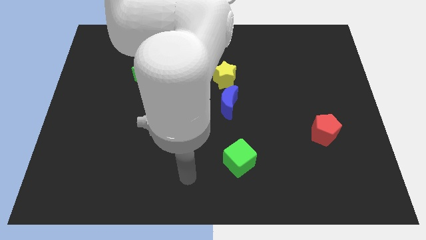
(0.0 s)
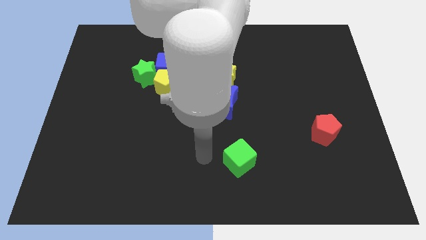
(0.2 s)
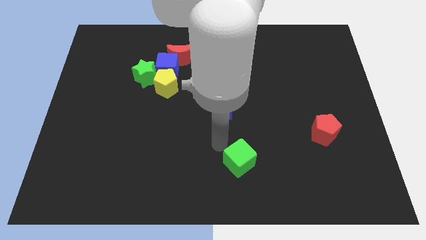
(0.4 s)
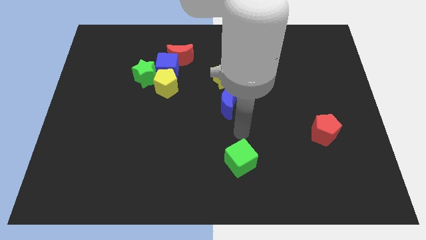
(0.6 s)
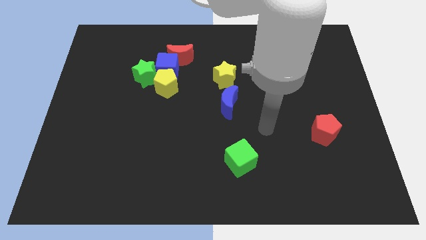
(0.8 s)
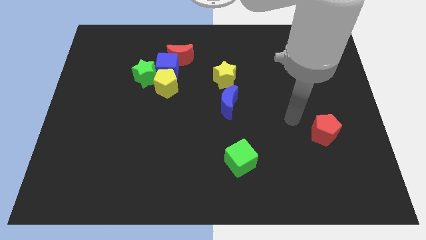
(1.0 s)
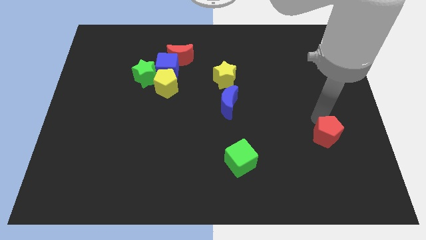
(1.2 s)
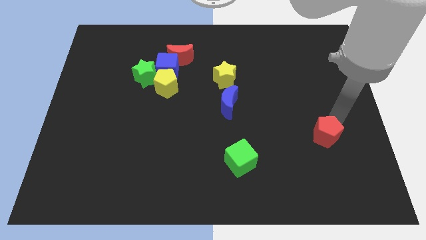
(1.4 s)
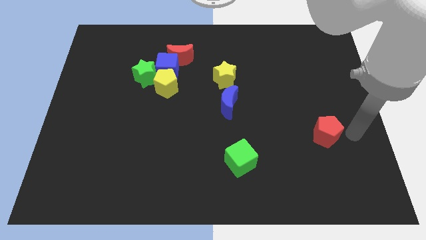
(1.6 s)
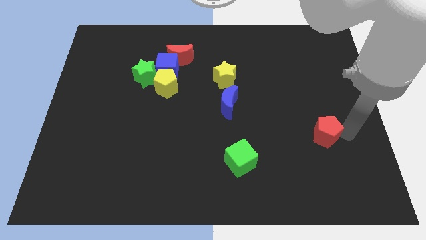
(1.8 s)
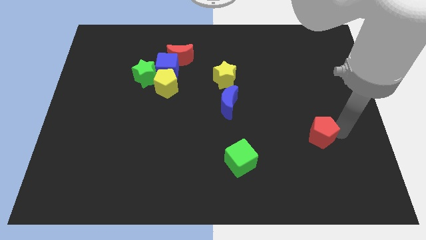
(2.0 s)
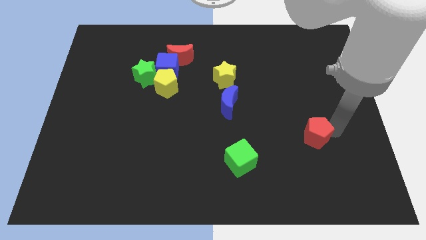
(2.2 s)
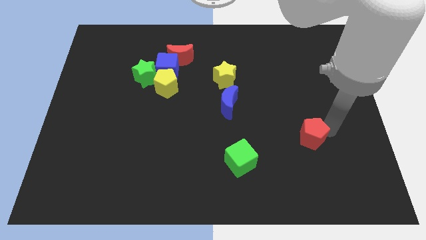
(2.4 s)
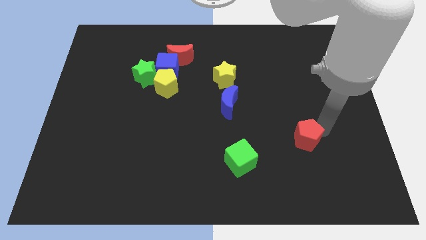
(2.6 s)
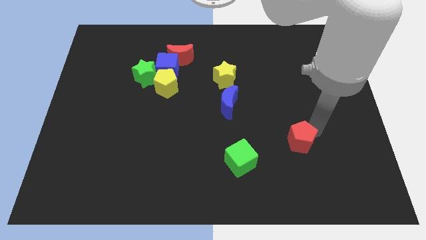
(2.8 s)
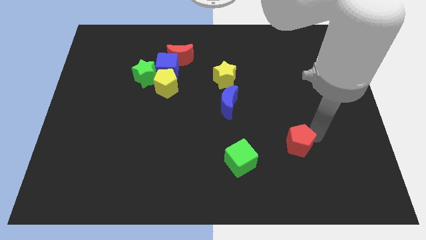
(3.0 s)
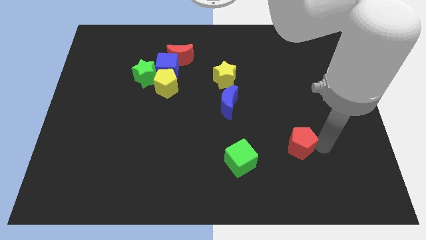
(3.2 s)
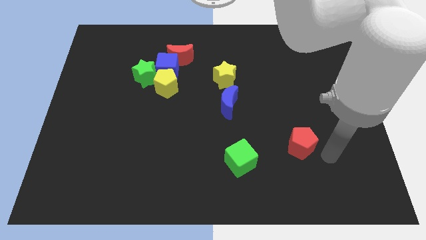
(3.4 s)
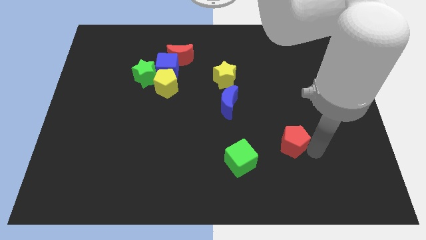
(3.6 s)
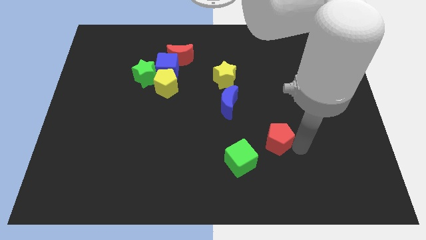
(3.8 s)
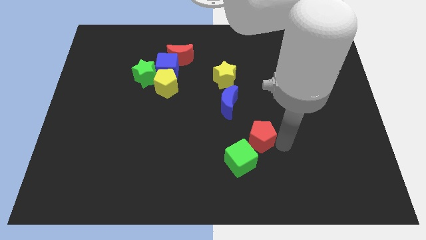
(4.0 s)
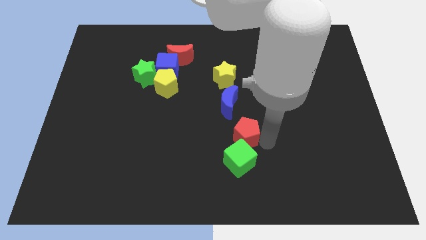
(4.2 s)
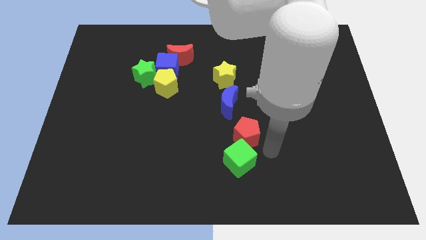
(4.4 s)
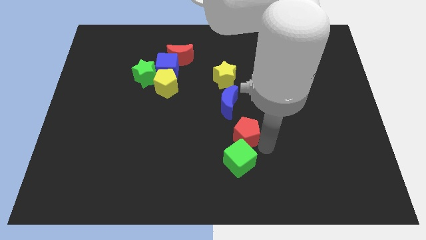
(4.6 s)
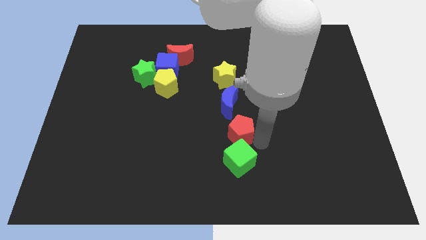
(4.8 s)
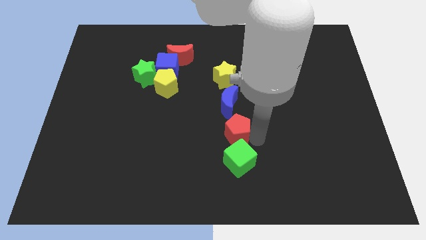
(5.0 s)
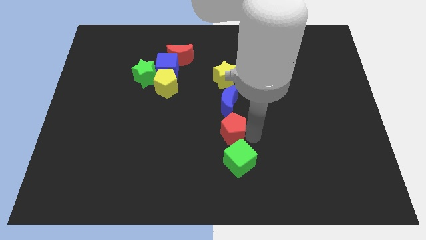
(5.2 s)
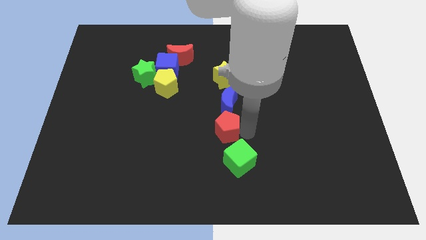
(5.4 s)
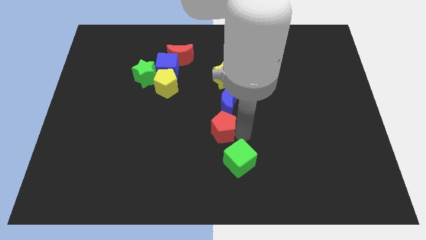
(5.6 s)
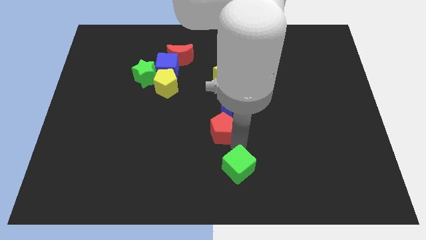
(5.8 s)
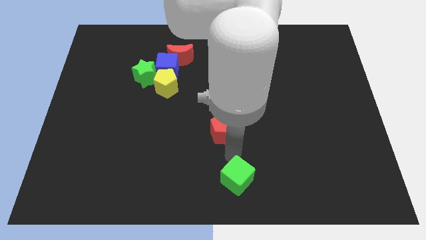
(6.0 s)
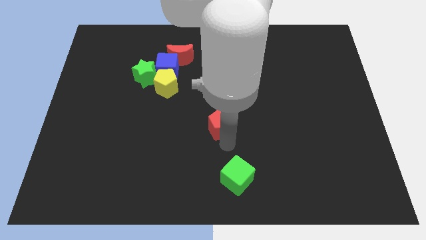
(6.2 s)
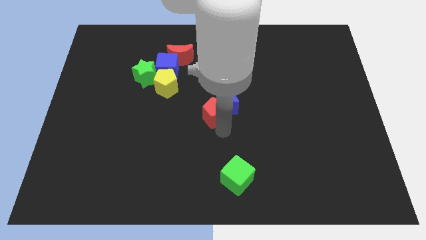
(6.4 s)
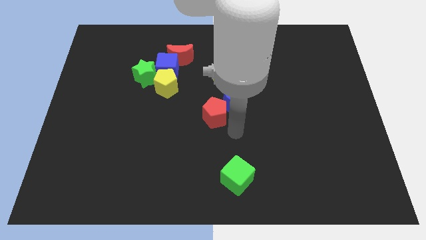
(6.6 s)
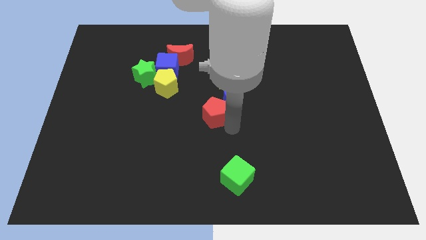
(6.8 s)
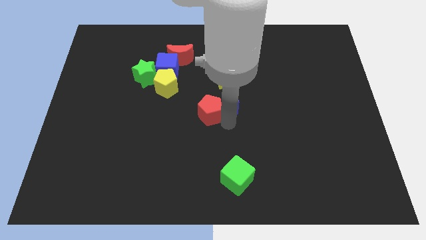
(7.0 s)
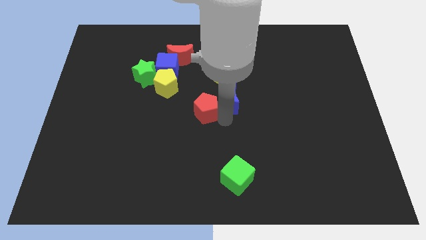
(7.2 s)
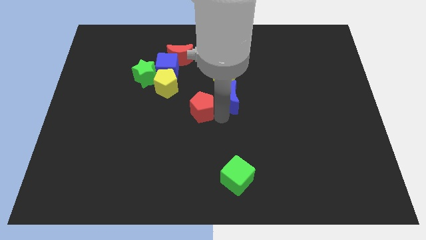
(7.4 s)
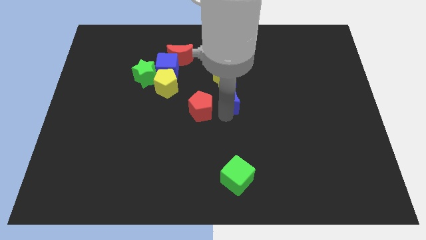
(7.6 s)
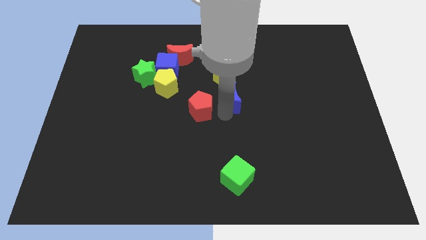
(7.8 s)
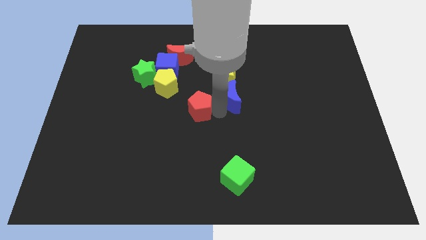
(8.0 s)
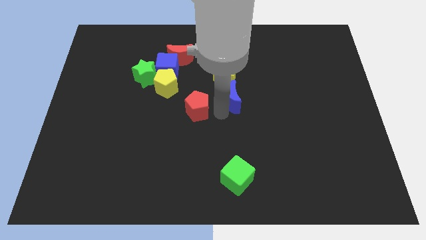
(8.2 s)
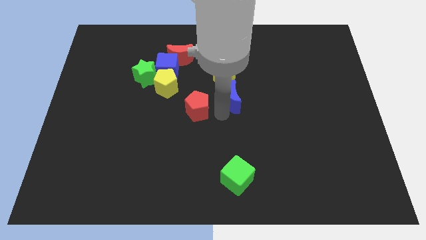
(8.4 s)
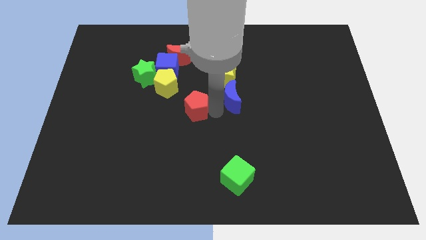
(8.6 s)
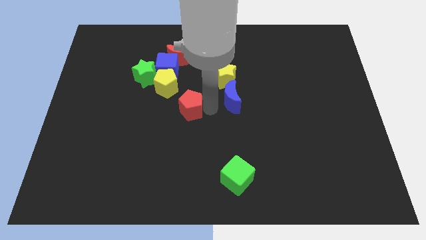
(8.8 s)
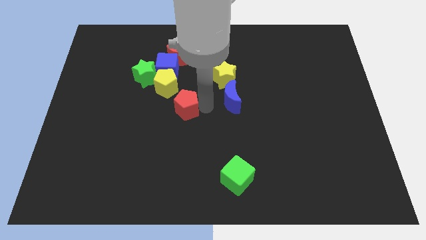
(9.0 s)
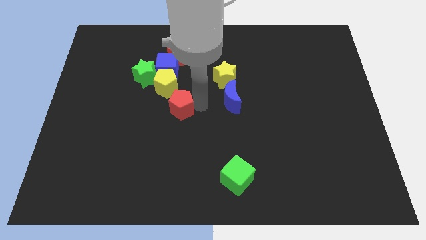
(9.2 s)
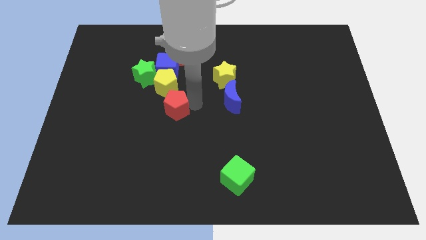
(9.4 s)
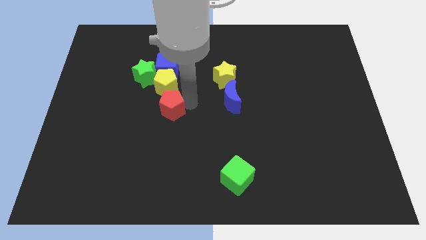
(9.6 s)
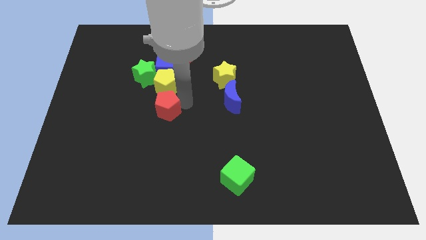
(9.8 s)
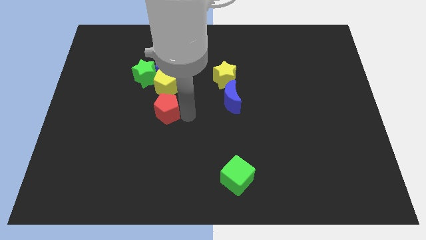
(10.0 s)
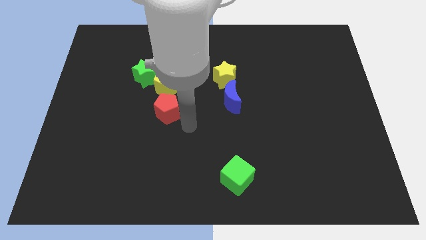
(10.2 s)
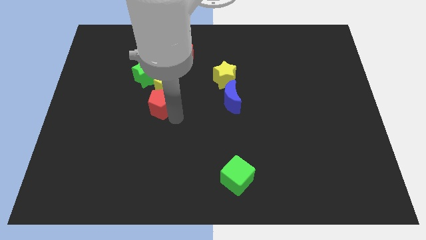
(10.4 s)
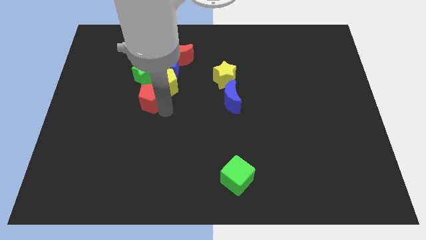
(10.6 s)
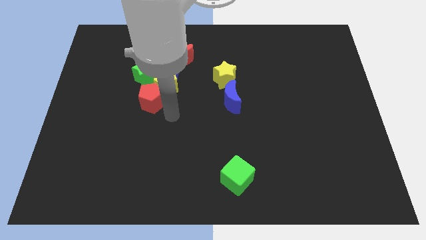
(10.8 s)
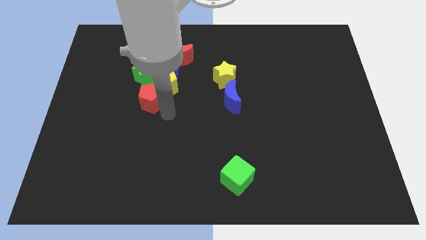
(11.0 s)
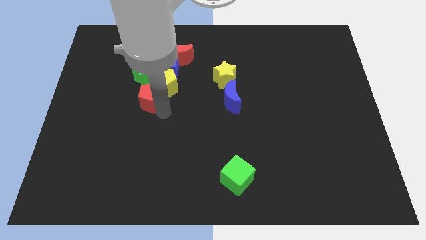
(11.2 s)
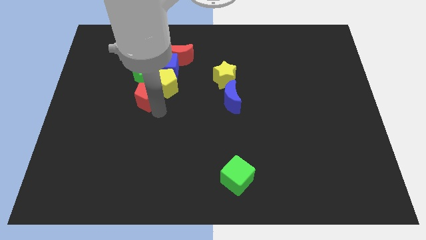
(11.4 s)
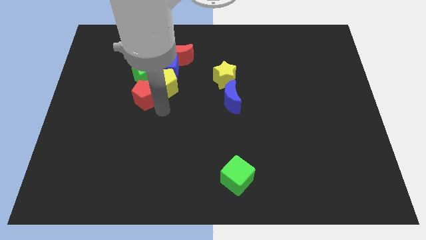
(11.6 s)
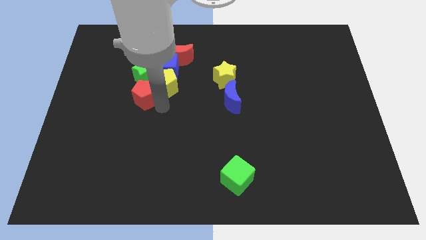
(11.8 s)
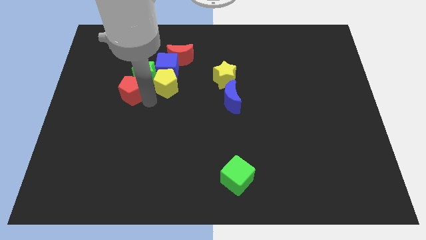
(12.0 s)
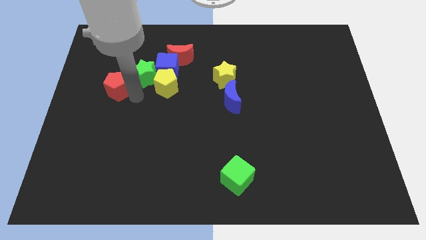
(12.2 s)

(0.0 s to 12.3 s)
push the red pentagon left of the green star

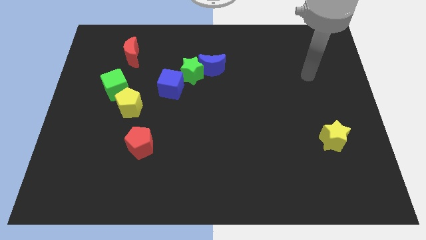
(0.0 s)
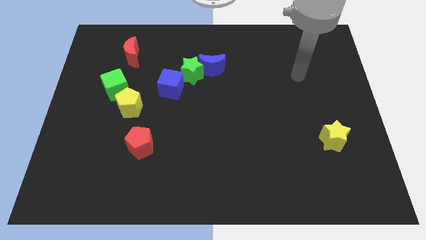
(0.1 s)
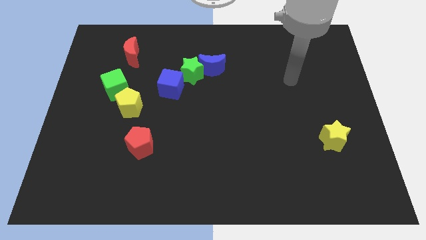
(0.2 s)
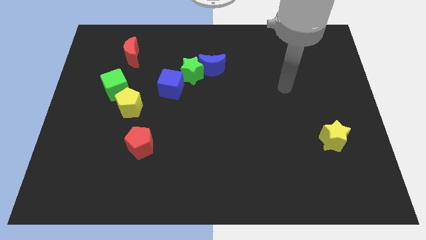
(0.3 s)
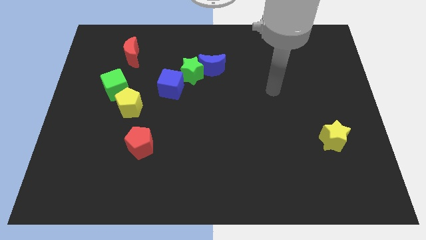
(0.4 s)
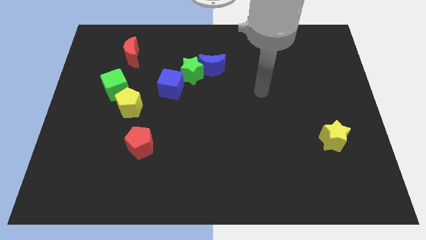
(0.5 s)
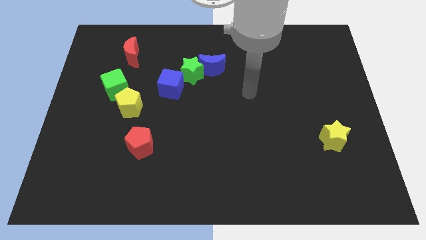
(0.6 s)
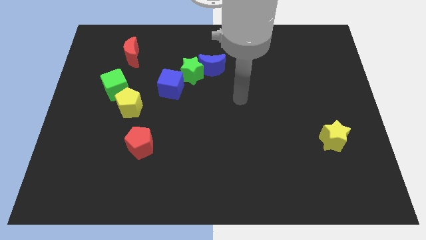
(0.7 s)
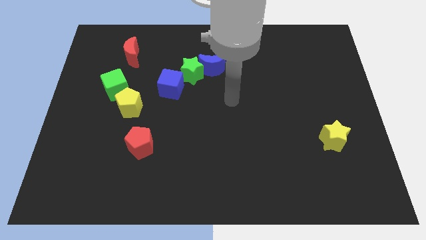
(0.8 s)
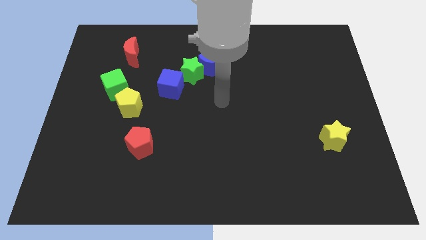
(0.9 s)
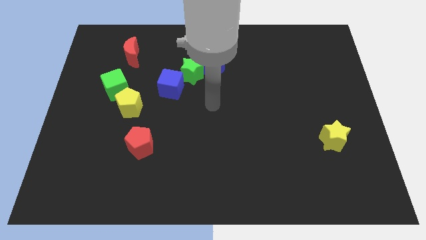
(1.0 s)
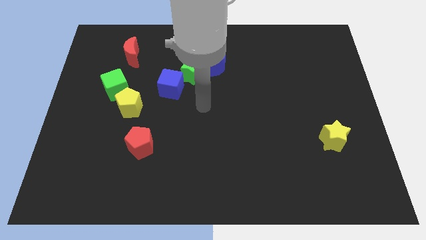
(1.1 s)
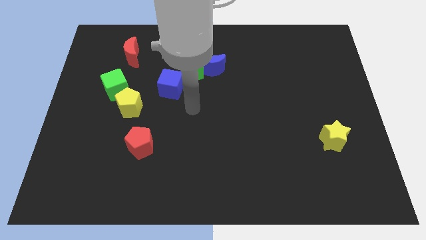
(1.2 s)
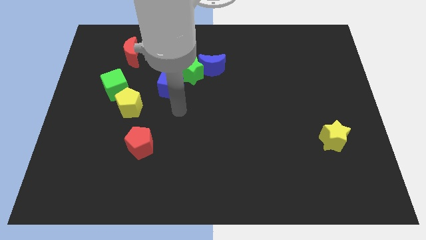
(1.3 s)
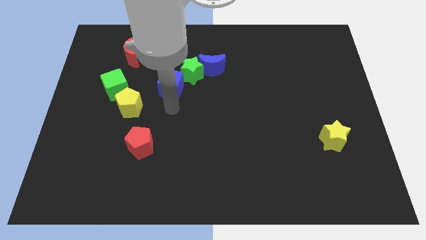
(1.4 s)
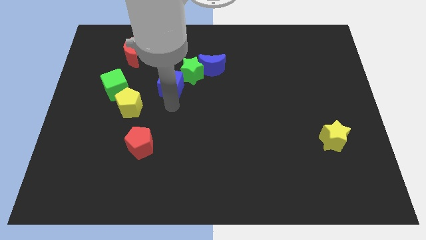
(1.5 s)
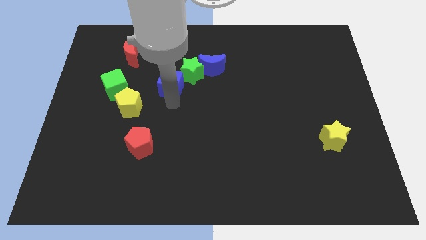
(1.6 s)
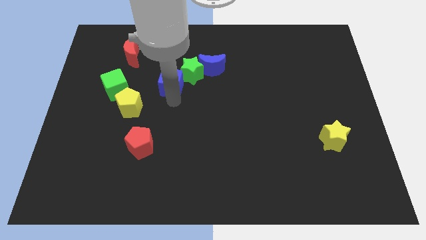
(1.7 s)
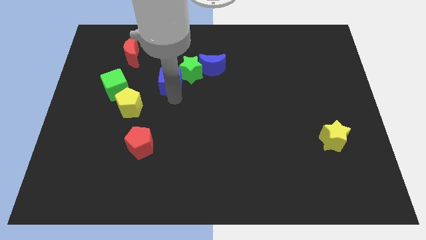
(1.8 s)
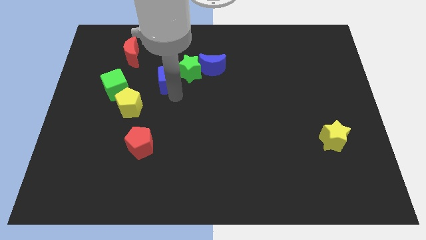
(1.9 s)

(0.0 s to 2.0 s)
slide the blue cube left of the blue moon
